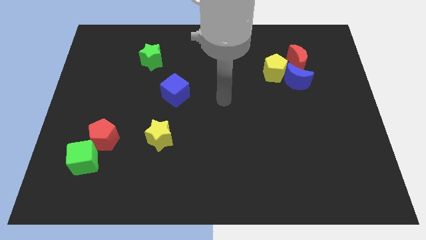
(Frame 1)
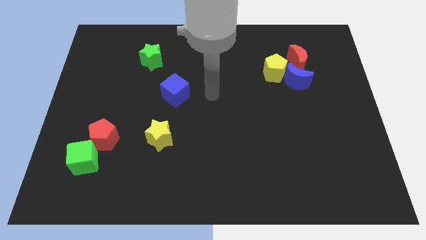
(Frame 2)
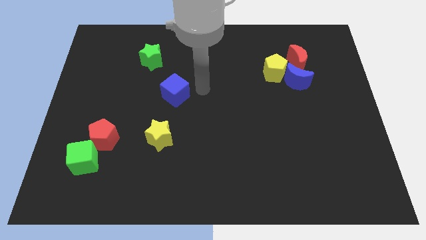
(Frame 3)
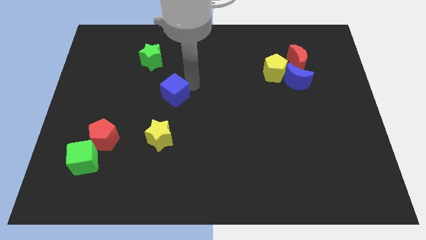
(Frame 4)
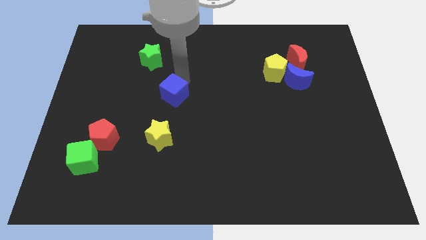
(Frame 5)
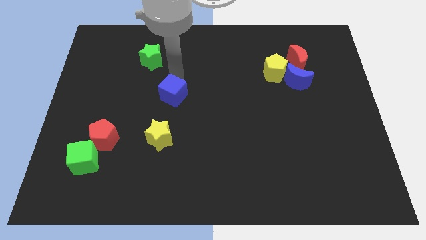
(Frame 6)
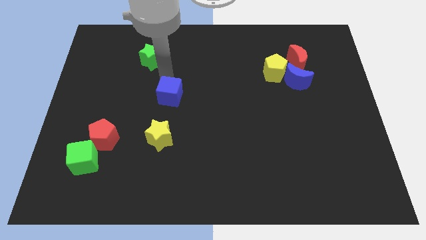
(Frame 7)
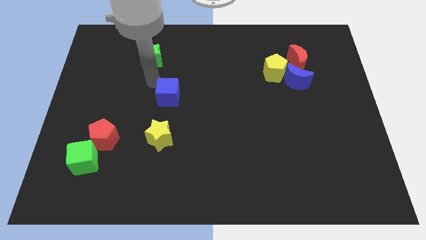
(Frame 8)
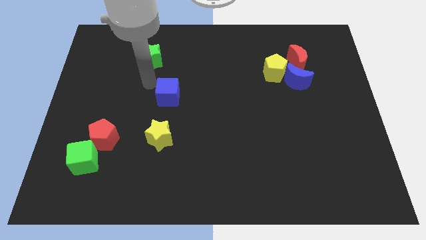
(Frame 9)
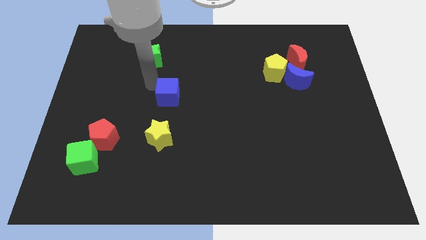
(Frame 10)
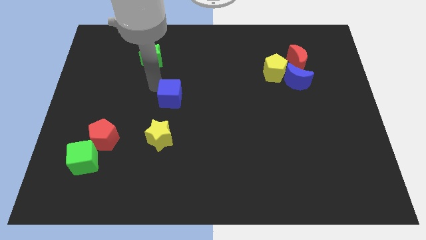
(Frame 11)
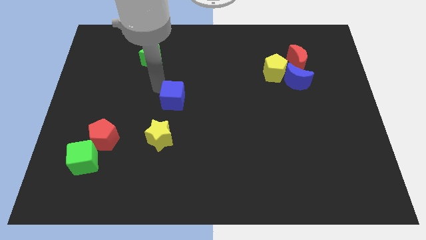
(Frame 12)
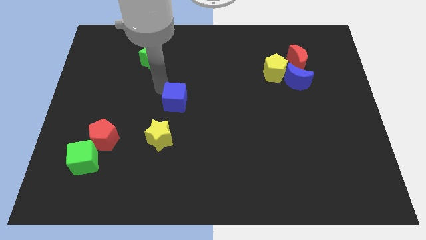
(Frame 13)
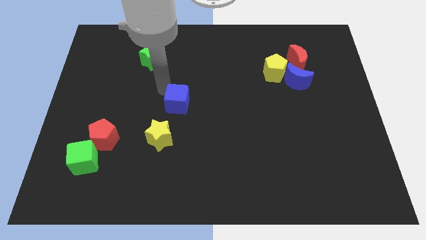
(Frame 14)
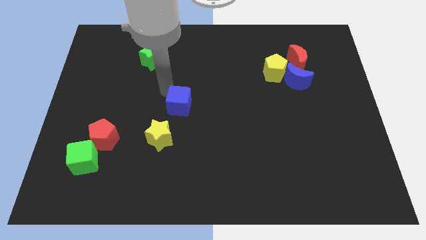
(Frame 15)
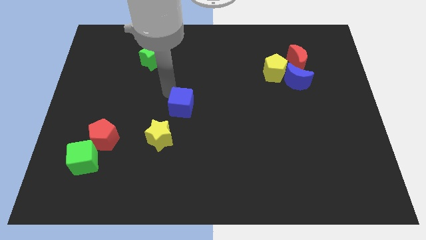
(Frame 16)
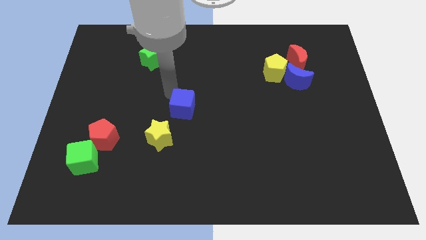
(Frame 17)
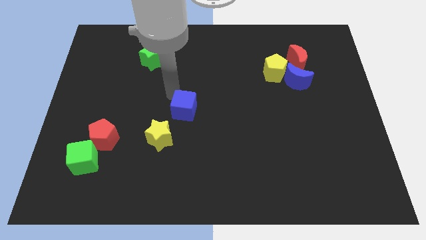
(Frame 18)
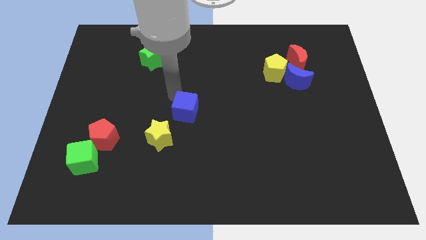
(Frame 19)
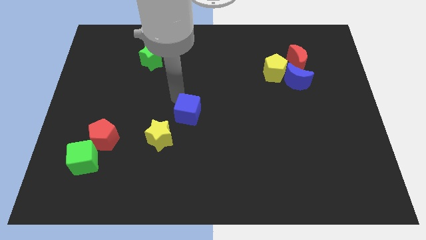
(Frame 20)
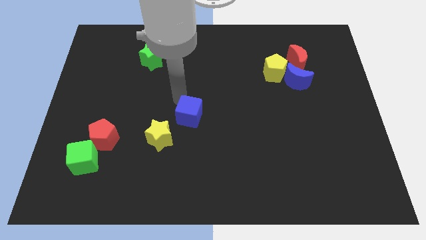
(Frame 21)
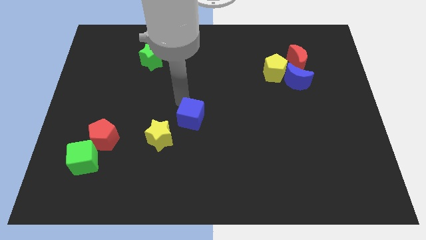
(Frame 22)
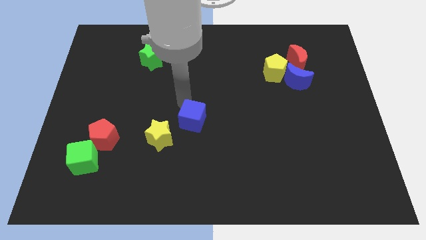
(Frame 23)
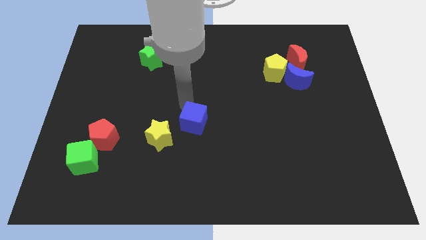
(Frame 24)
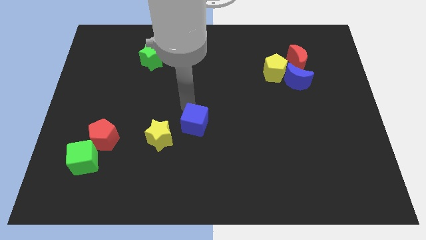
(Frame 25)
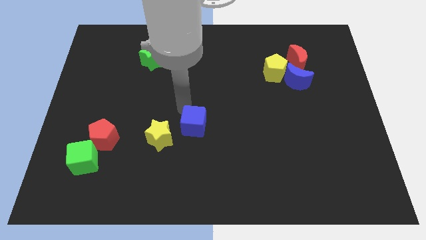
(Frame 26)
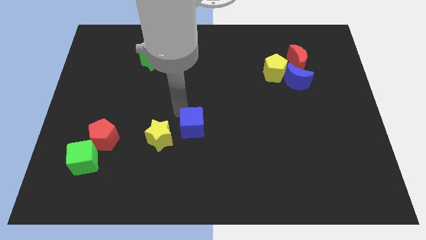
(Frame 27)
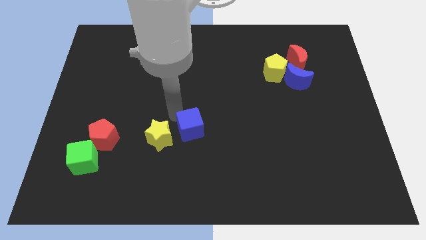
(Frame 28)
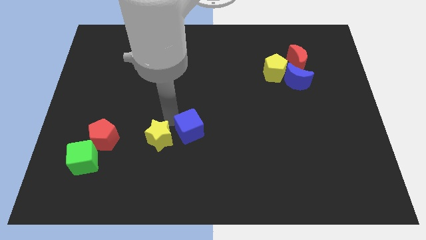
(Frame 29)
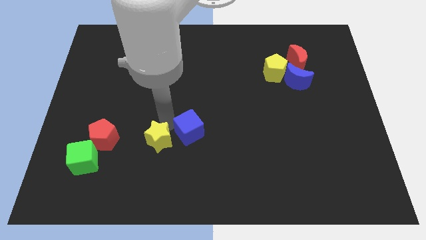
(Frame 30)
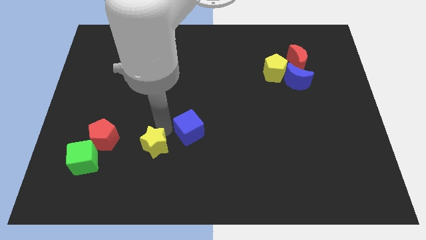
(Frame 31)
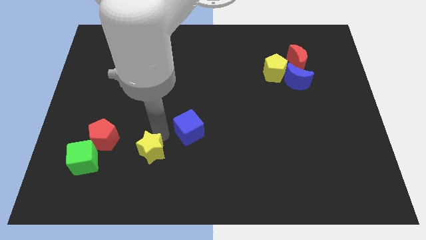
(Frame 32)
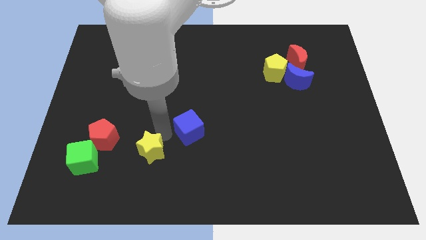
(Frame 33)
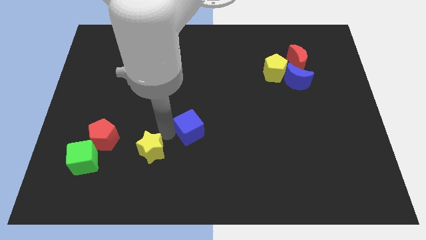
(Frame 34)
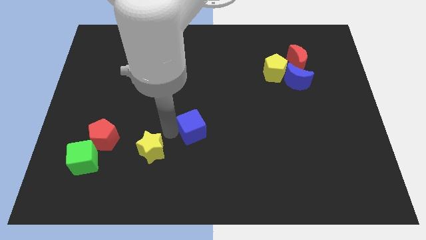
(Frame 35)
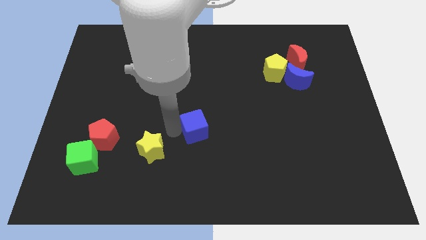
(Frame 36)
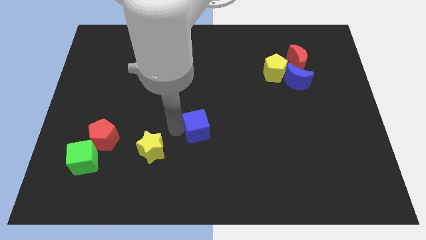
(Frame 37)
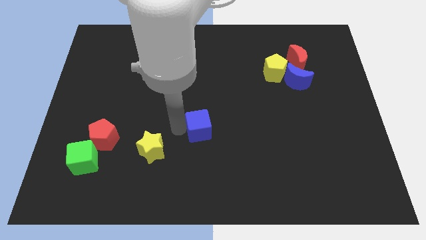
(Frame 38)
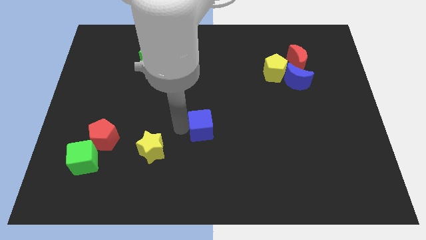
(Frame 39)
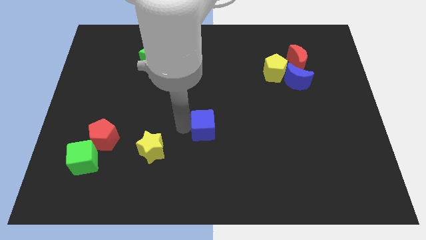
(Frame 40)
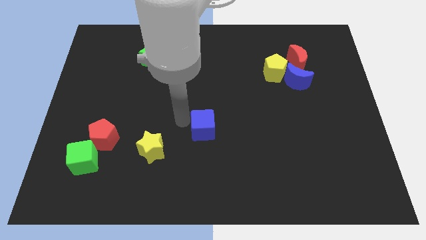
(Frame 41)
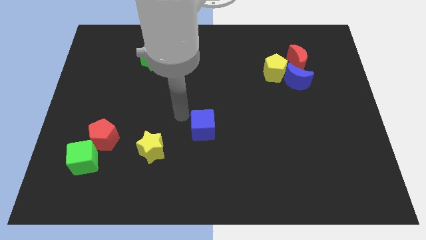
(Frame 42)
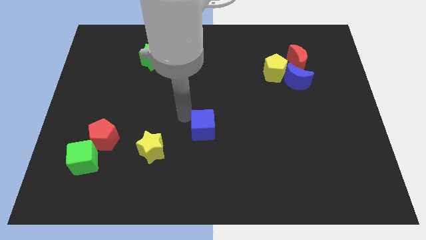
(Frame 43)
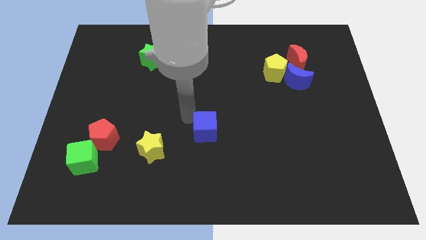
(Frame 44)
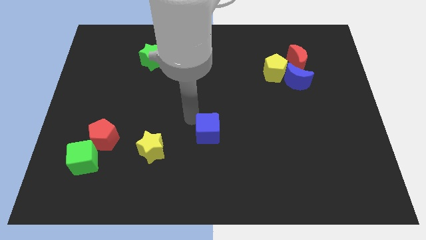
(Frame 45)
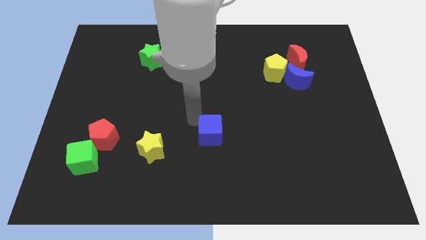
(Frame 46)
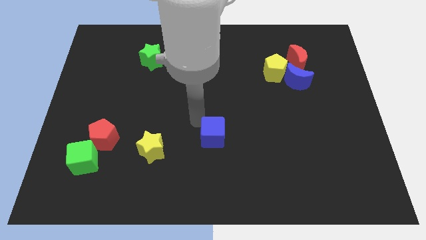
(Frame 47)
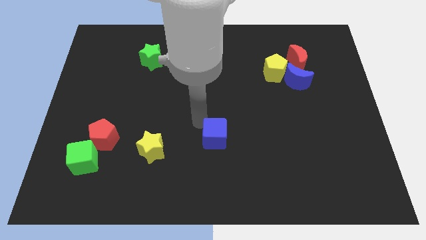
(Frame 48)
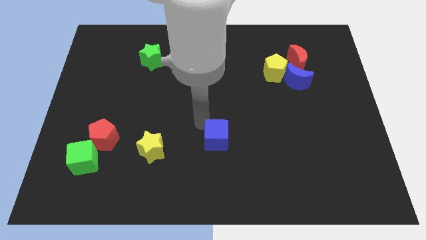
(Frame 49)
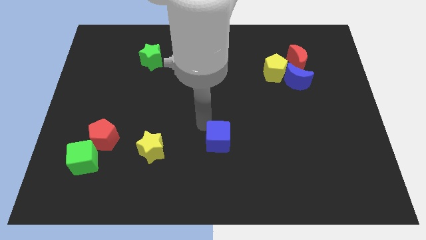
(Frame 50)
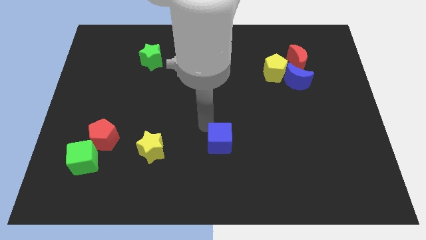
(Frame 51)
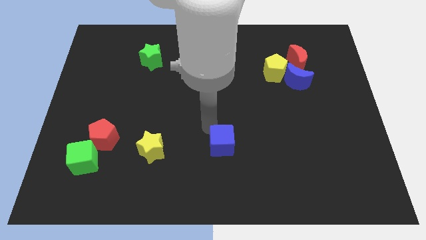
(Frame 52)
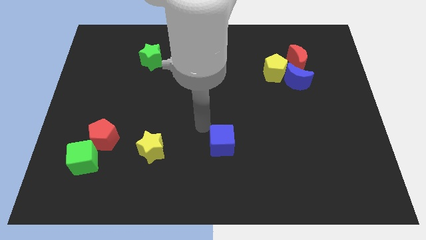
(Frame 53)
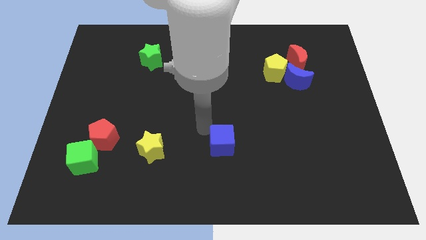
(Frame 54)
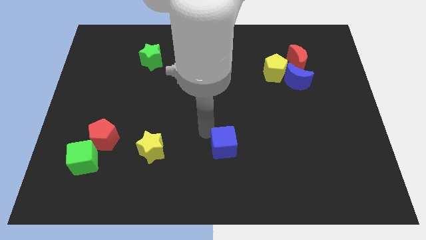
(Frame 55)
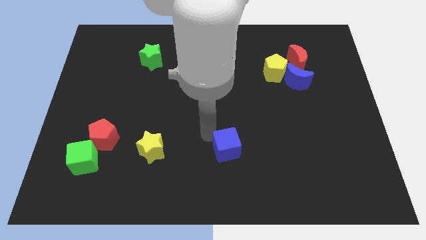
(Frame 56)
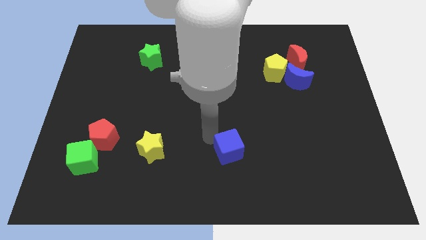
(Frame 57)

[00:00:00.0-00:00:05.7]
push the blue cube downwards and right diagonally

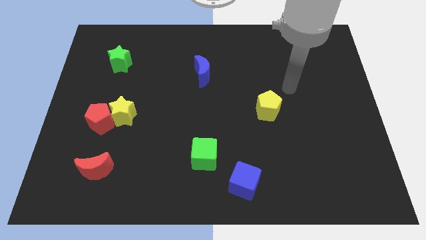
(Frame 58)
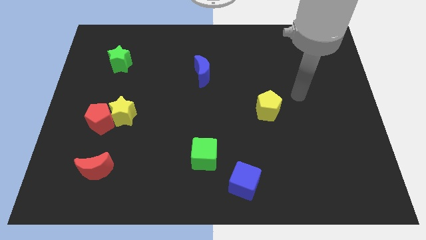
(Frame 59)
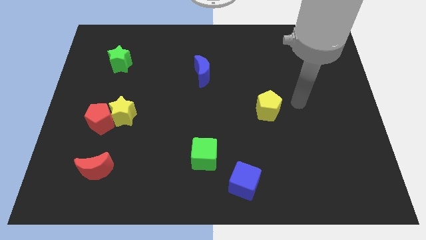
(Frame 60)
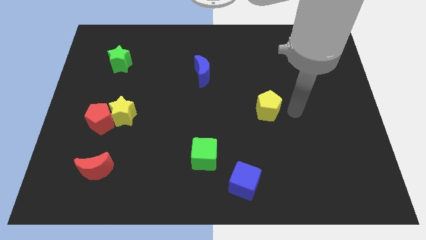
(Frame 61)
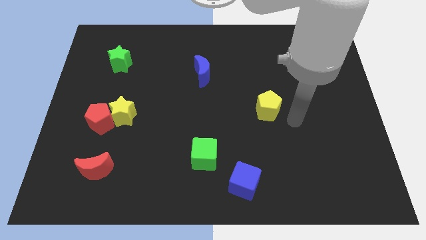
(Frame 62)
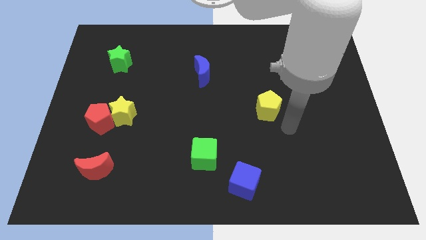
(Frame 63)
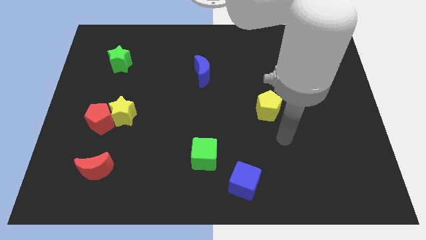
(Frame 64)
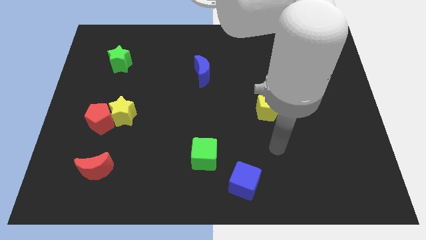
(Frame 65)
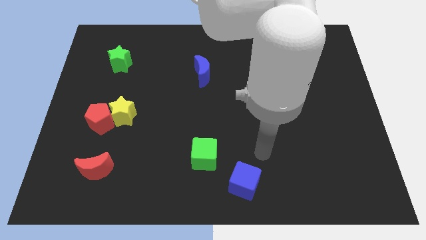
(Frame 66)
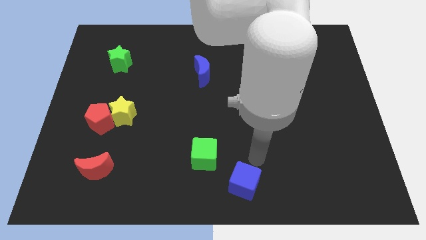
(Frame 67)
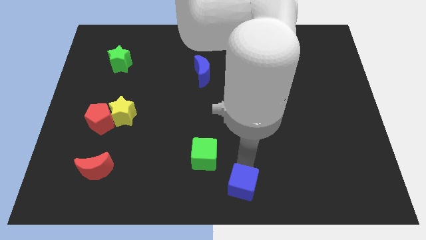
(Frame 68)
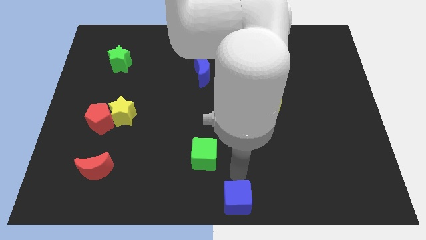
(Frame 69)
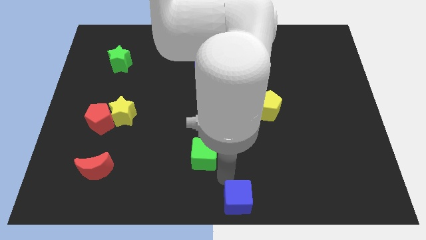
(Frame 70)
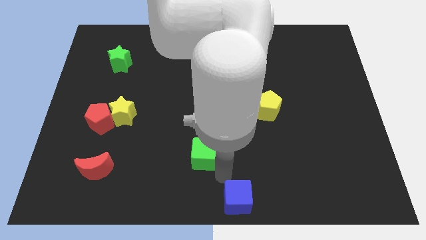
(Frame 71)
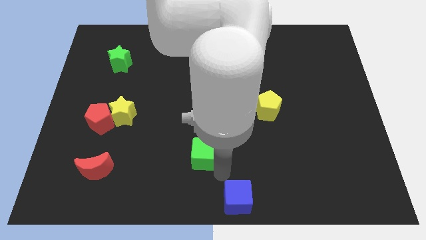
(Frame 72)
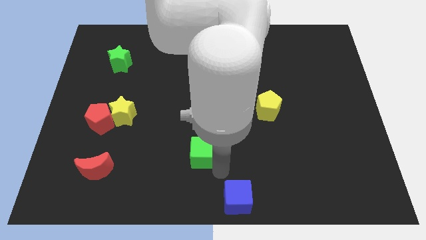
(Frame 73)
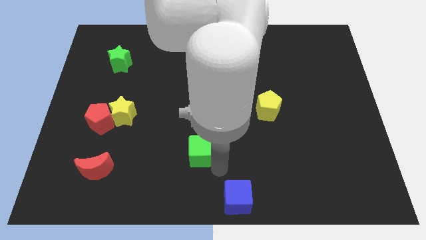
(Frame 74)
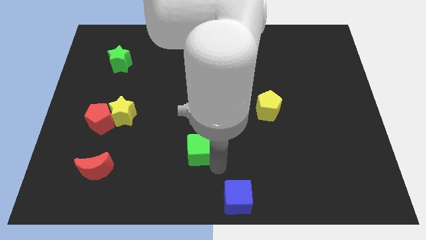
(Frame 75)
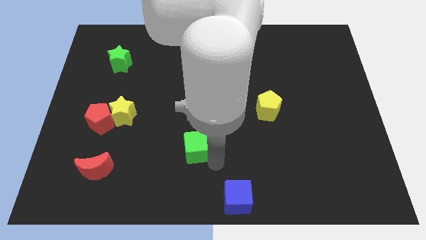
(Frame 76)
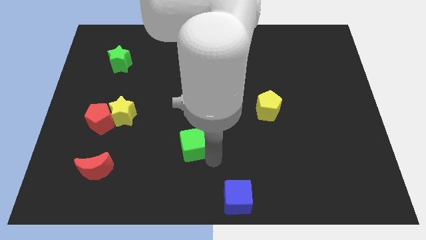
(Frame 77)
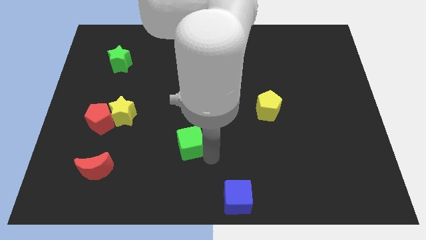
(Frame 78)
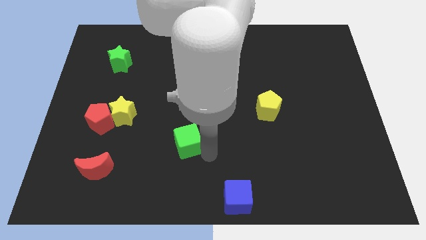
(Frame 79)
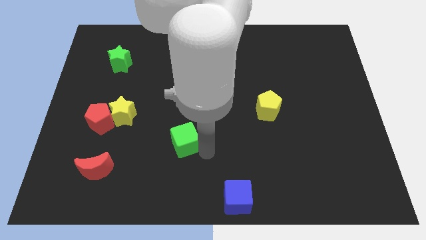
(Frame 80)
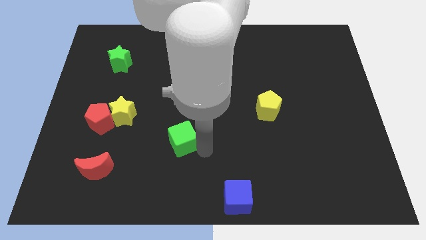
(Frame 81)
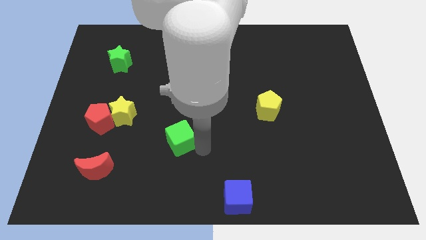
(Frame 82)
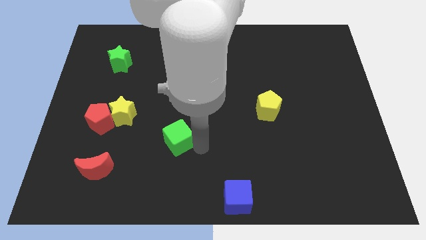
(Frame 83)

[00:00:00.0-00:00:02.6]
slide the green cube diagonally up and left a little
